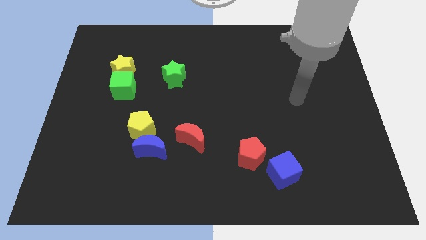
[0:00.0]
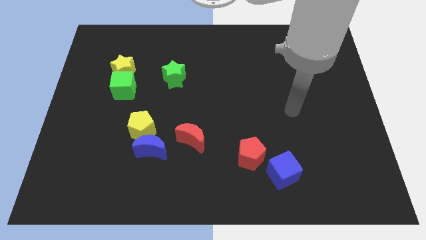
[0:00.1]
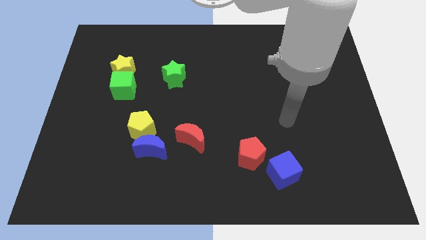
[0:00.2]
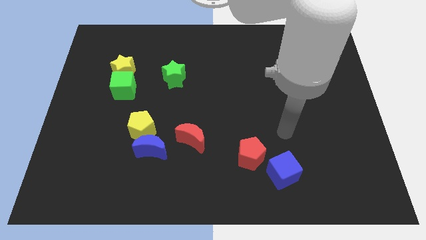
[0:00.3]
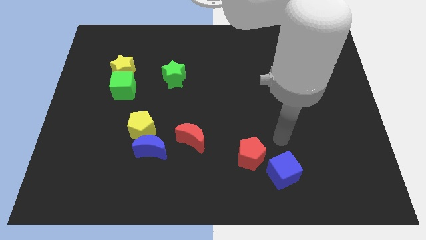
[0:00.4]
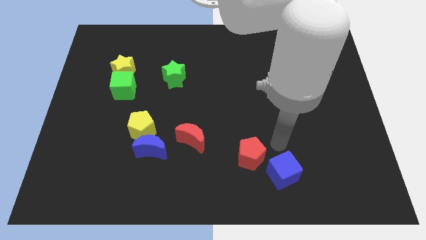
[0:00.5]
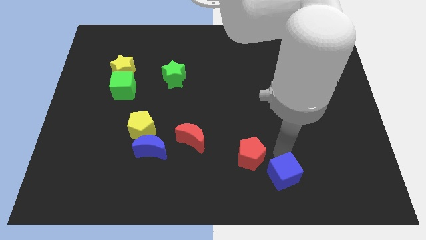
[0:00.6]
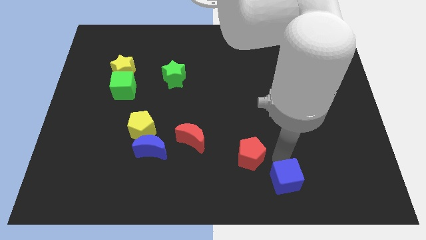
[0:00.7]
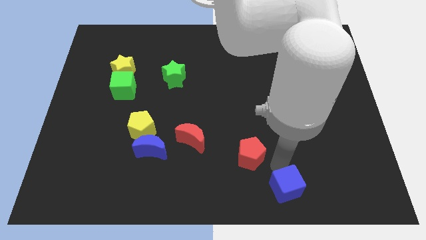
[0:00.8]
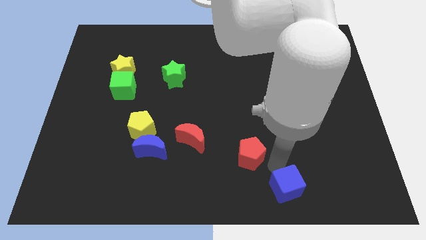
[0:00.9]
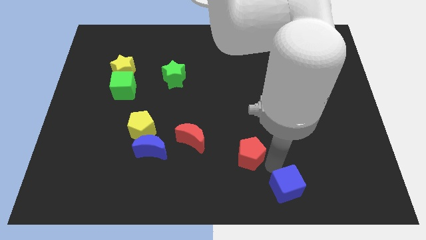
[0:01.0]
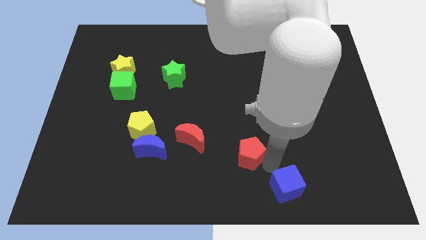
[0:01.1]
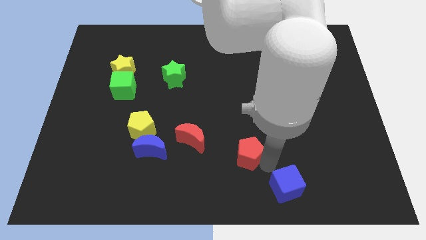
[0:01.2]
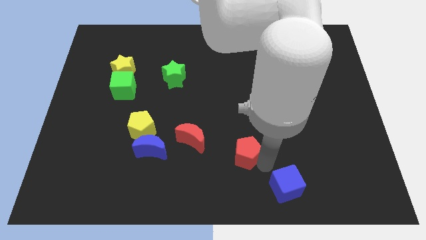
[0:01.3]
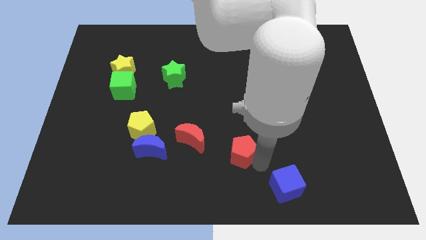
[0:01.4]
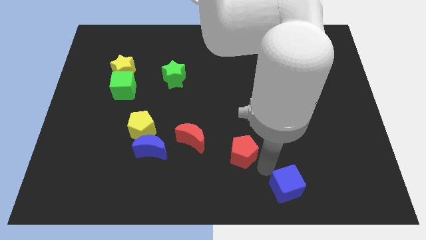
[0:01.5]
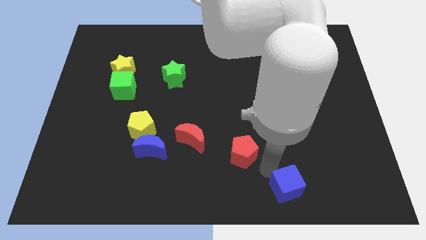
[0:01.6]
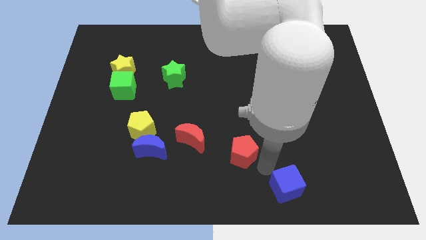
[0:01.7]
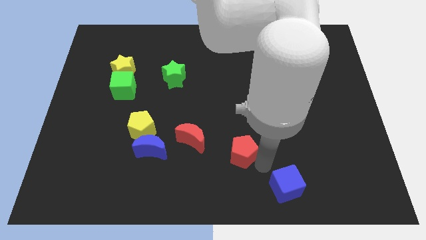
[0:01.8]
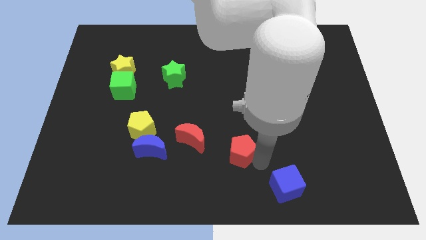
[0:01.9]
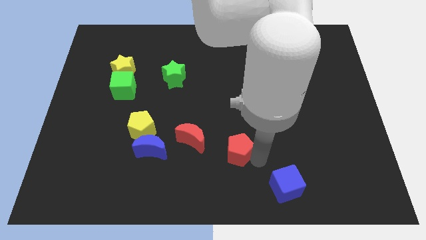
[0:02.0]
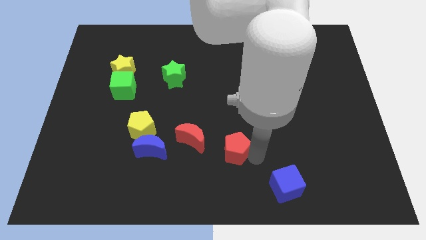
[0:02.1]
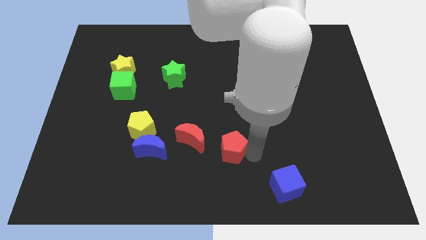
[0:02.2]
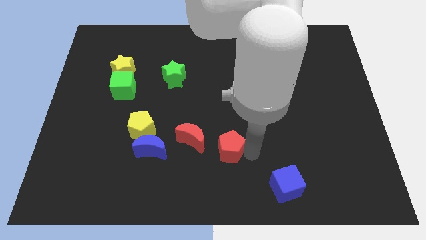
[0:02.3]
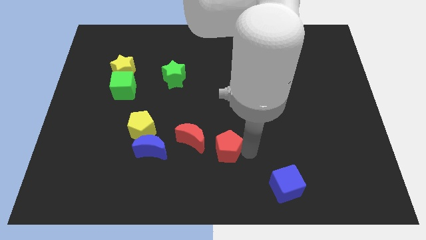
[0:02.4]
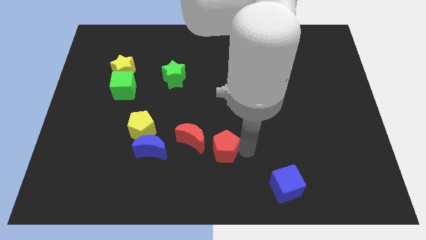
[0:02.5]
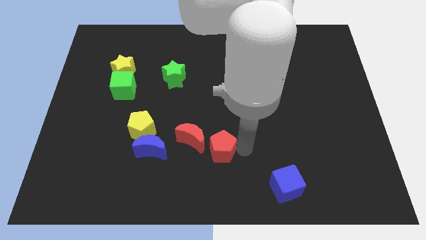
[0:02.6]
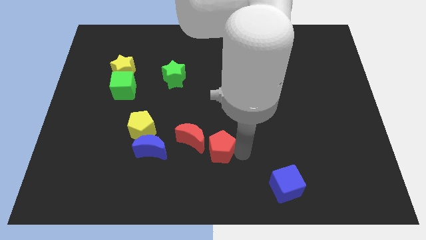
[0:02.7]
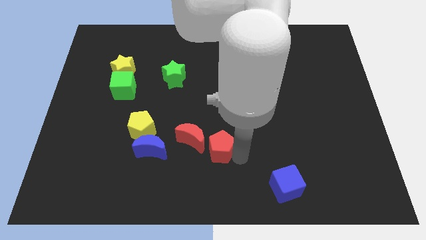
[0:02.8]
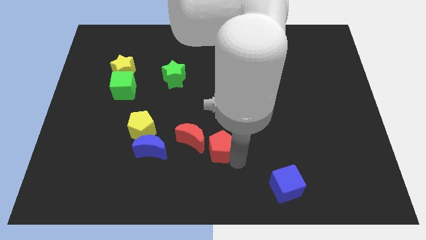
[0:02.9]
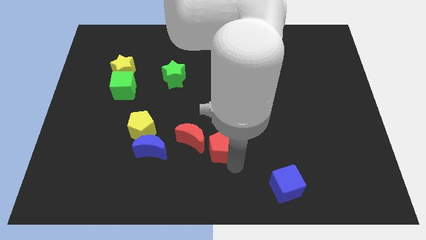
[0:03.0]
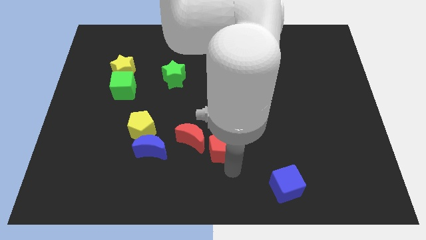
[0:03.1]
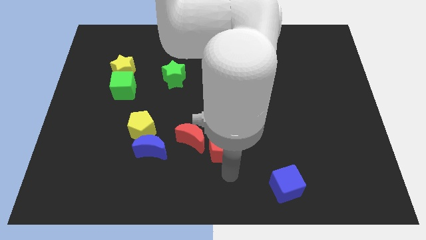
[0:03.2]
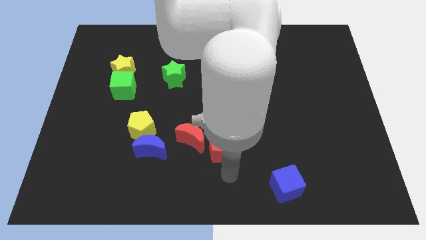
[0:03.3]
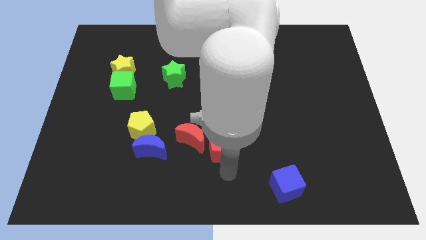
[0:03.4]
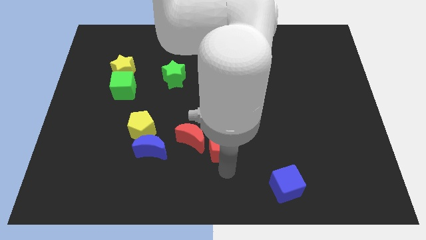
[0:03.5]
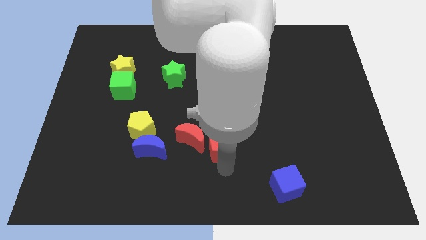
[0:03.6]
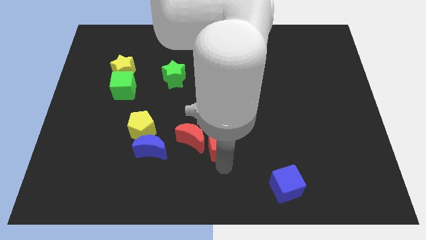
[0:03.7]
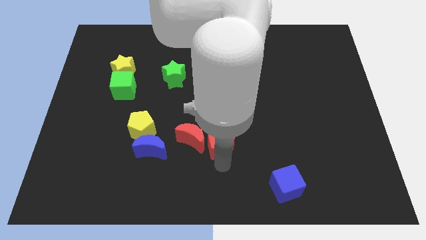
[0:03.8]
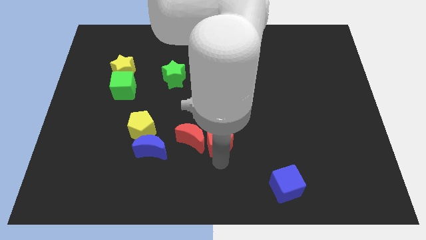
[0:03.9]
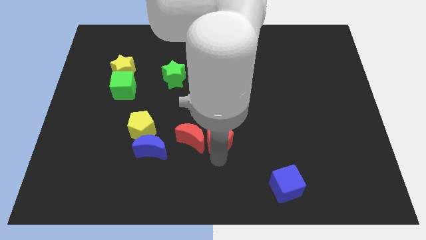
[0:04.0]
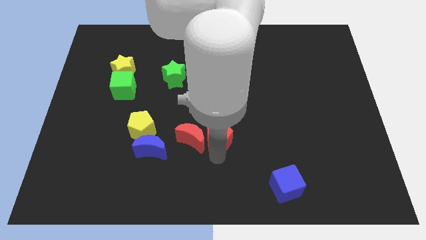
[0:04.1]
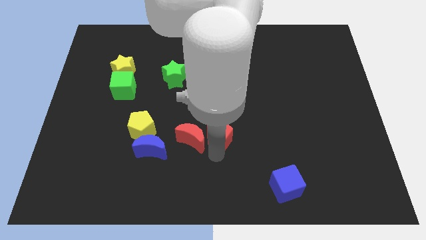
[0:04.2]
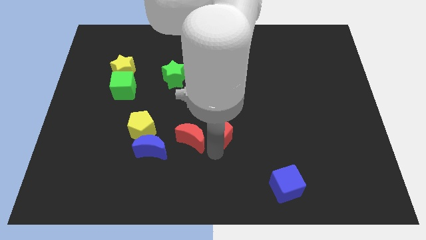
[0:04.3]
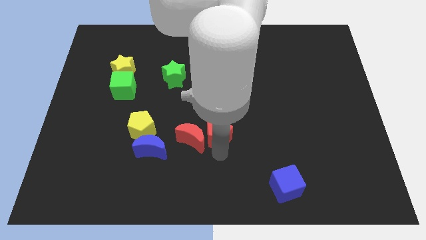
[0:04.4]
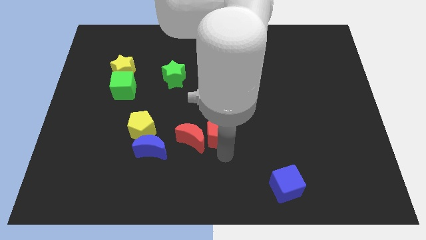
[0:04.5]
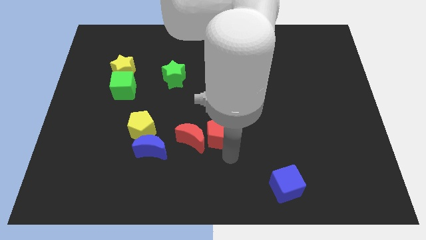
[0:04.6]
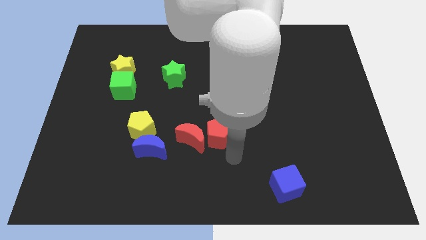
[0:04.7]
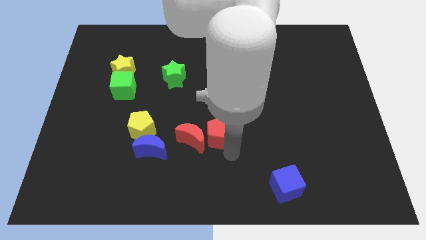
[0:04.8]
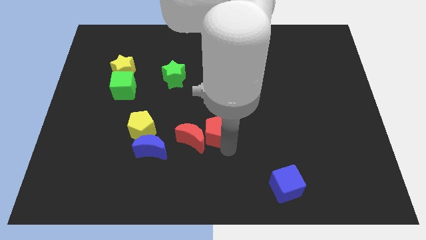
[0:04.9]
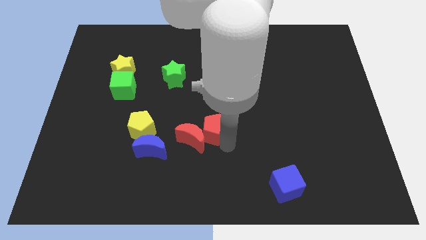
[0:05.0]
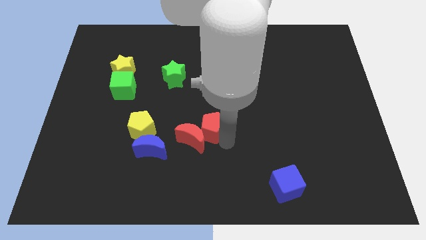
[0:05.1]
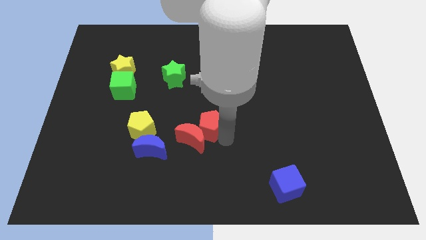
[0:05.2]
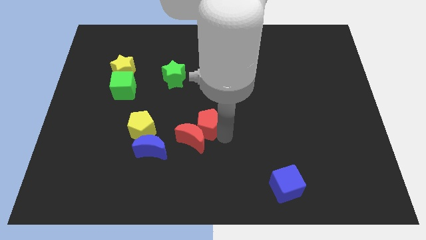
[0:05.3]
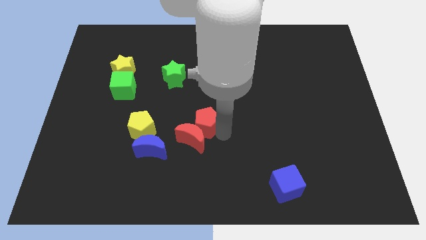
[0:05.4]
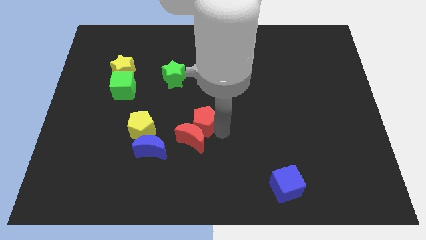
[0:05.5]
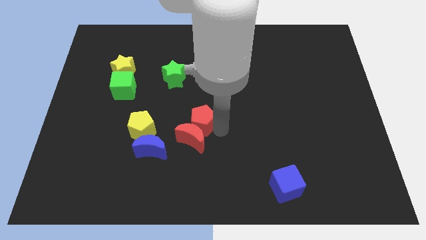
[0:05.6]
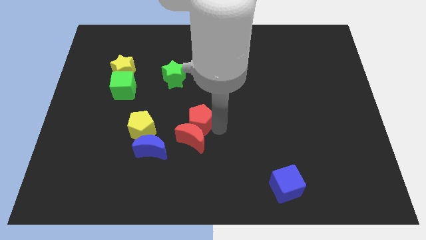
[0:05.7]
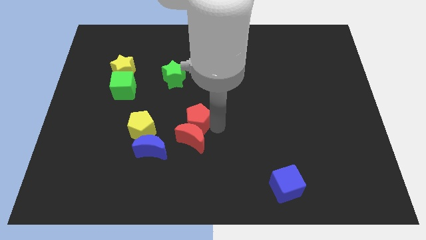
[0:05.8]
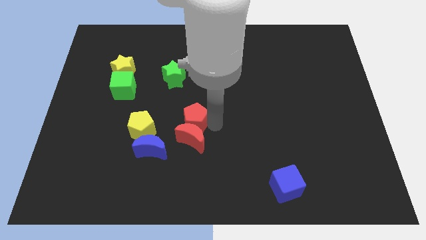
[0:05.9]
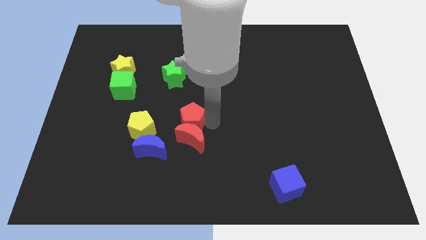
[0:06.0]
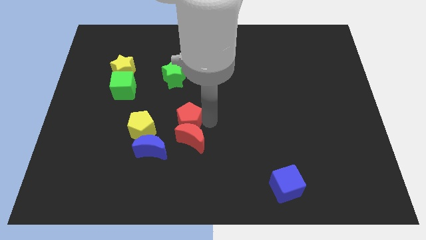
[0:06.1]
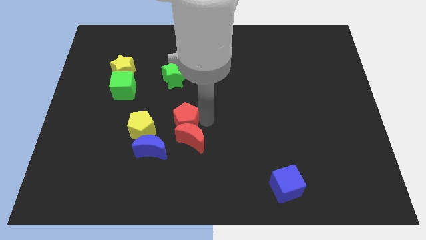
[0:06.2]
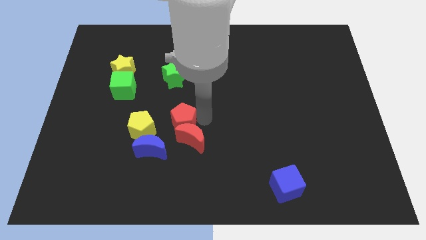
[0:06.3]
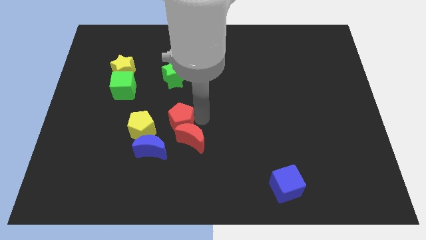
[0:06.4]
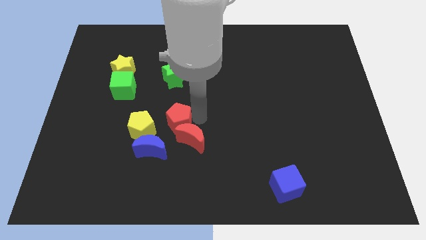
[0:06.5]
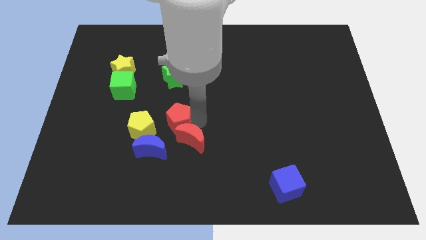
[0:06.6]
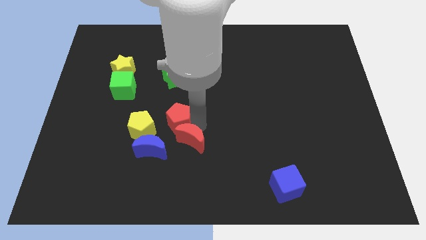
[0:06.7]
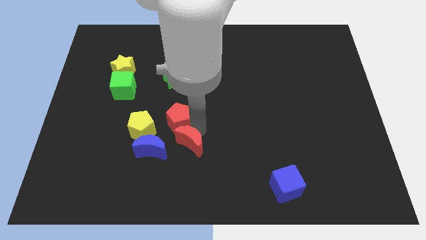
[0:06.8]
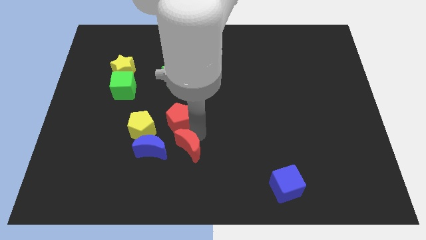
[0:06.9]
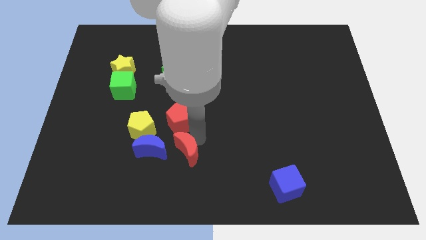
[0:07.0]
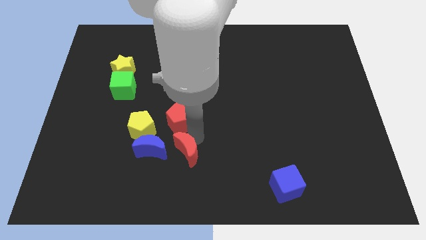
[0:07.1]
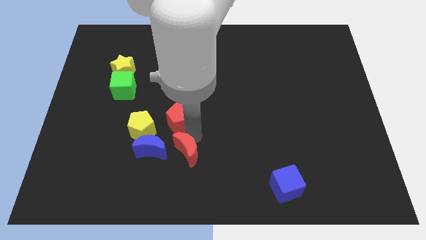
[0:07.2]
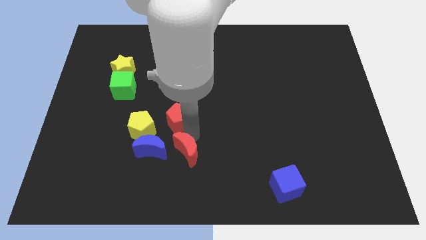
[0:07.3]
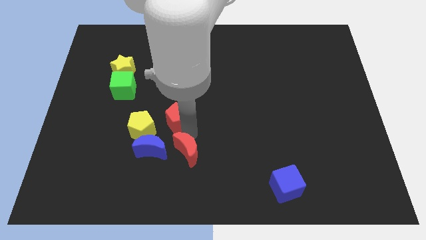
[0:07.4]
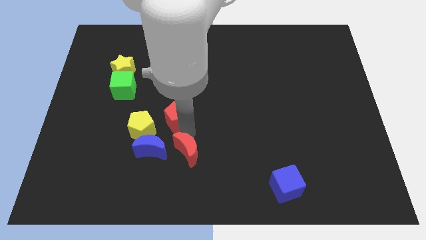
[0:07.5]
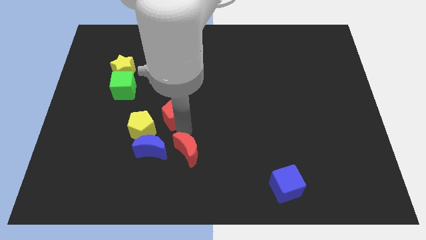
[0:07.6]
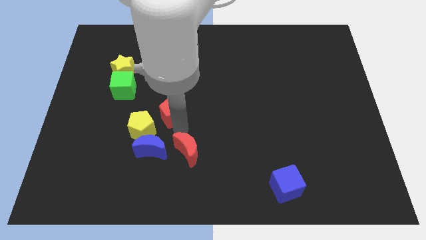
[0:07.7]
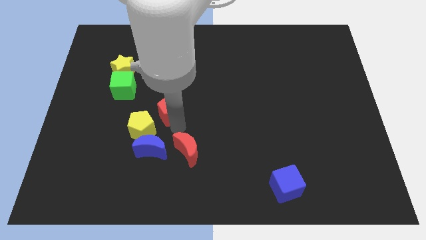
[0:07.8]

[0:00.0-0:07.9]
push the red pentagon upwards and to the left diagonally

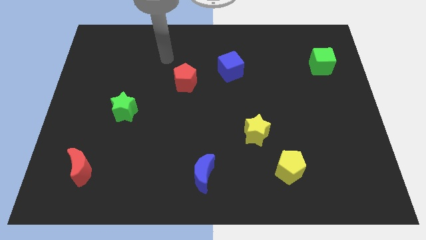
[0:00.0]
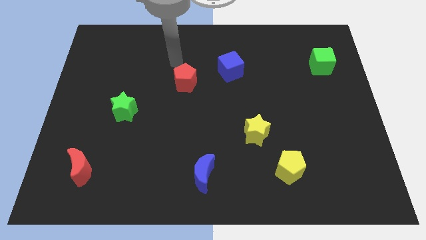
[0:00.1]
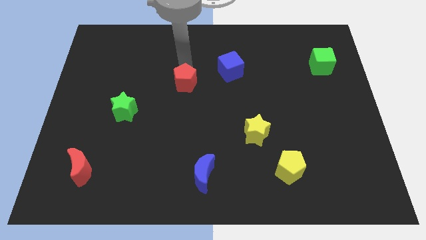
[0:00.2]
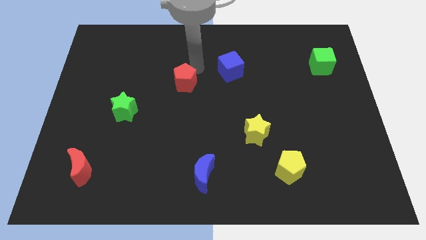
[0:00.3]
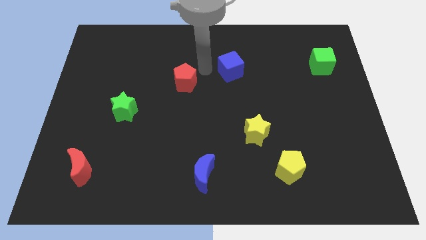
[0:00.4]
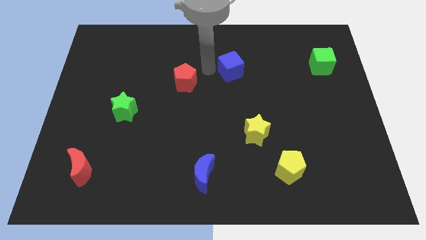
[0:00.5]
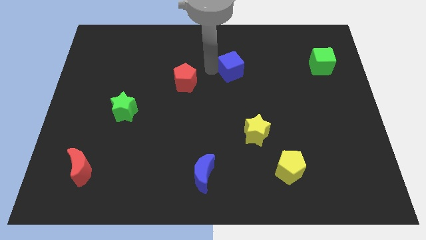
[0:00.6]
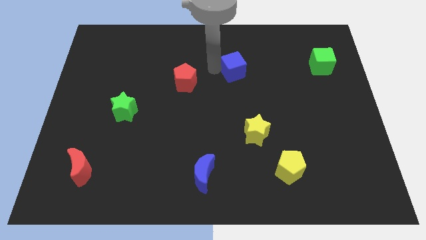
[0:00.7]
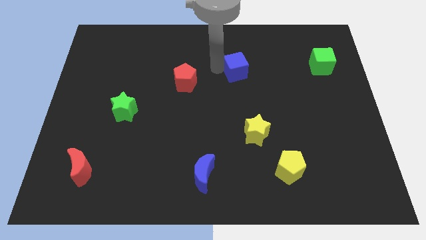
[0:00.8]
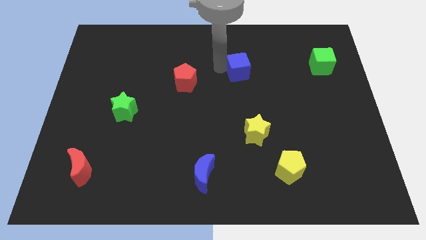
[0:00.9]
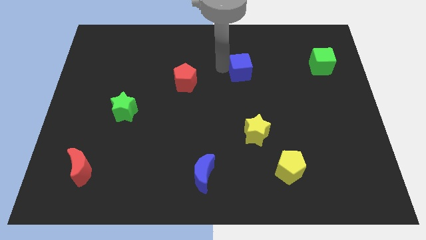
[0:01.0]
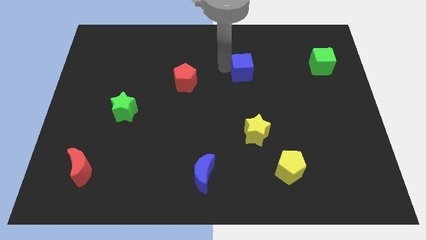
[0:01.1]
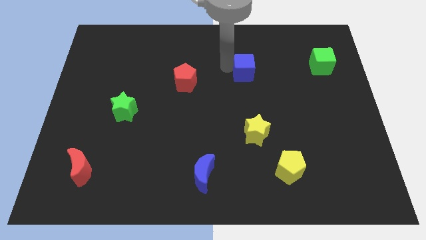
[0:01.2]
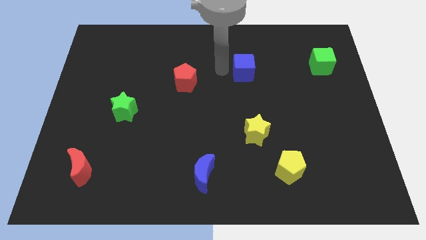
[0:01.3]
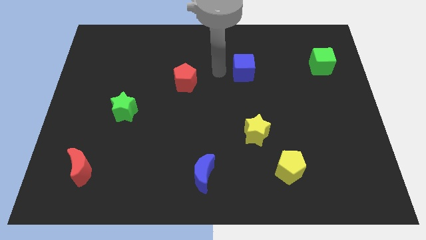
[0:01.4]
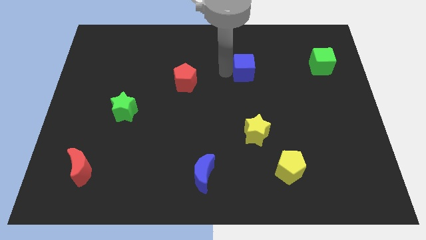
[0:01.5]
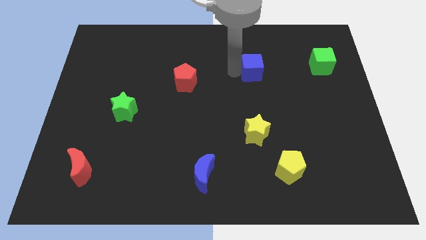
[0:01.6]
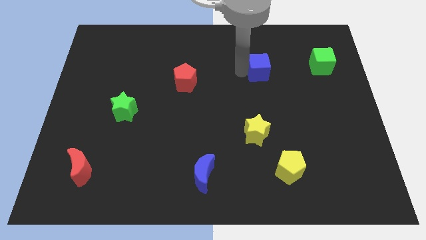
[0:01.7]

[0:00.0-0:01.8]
slide the blue cube slightly right
